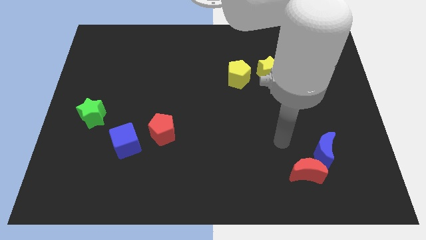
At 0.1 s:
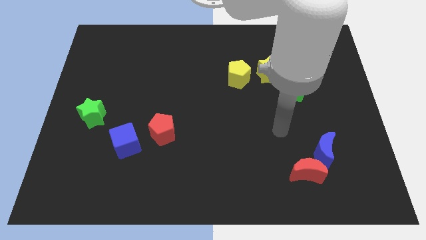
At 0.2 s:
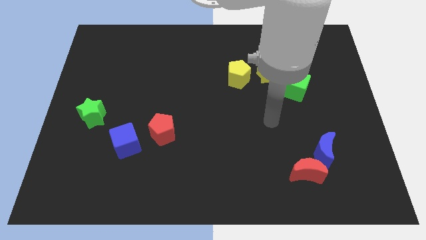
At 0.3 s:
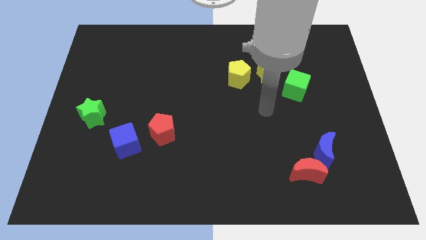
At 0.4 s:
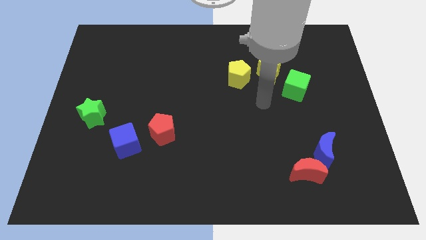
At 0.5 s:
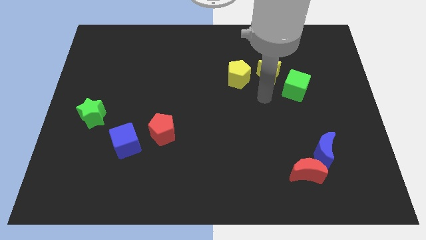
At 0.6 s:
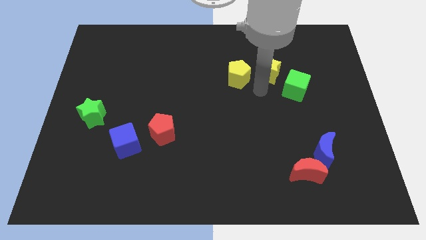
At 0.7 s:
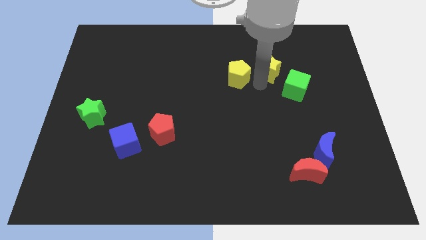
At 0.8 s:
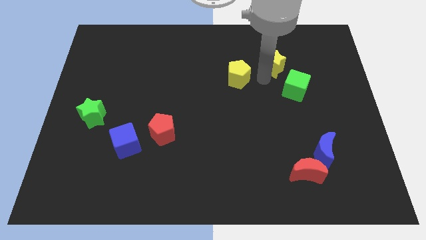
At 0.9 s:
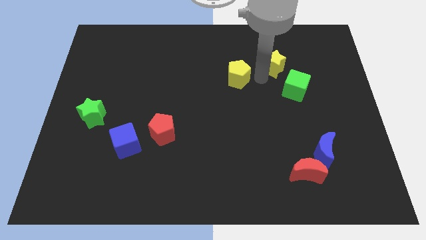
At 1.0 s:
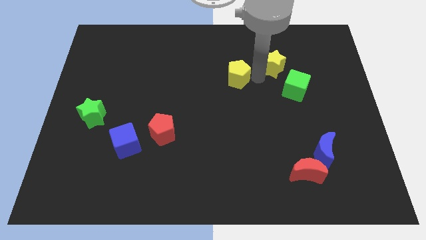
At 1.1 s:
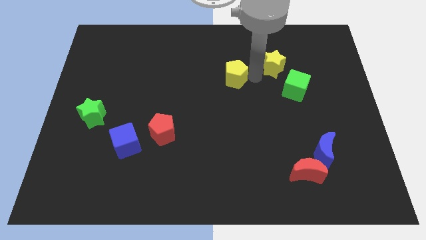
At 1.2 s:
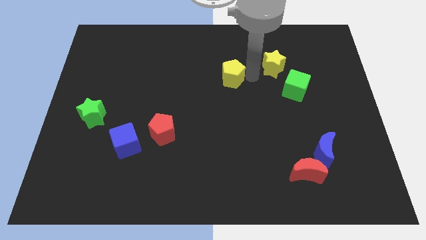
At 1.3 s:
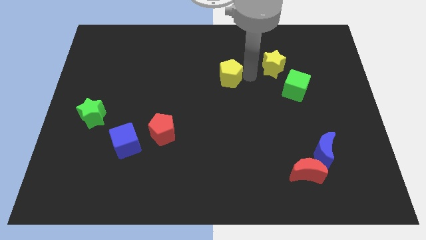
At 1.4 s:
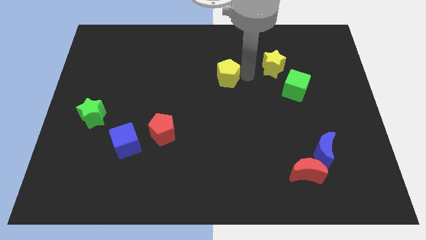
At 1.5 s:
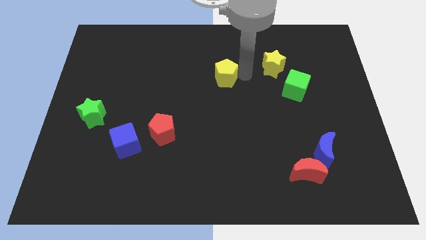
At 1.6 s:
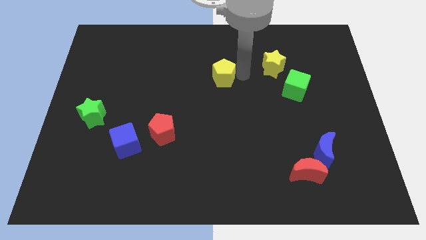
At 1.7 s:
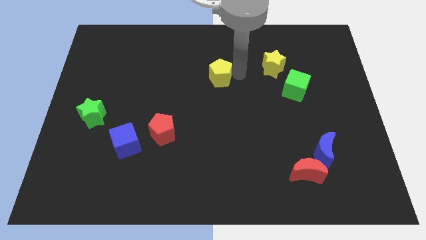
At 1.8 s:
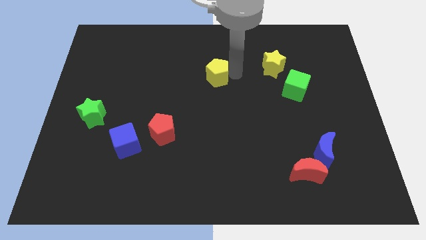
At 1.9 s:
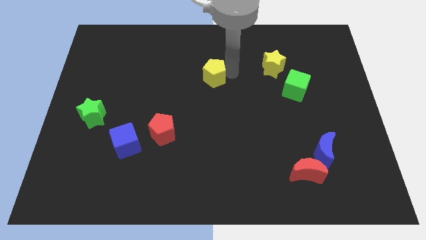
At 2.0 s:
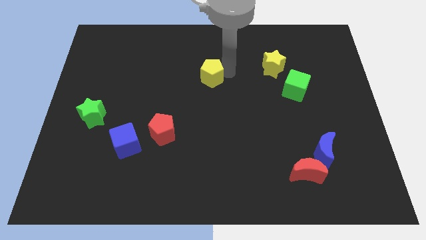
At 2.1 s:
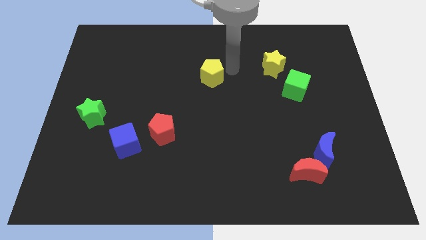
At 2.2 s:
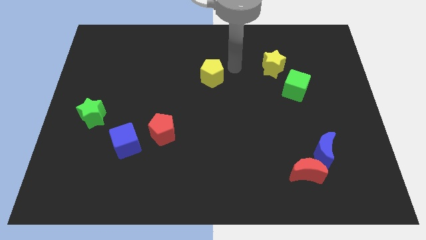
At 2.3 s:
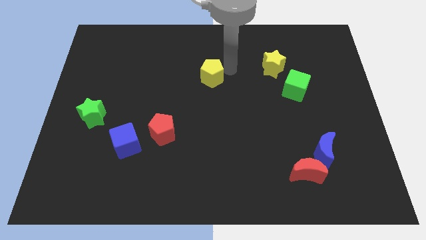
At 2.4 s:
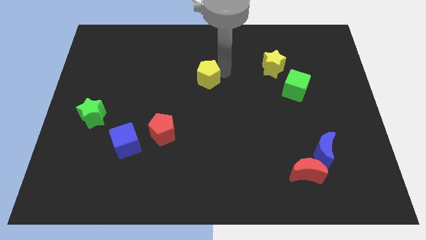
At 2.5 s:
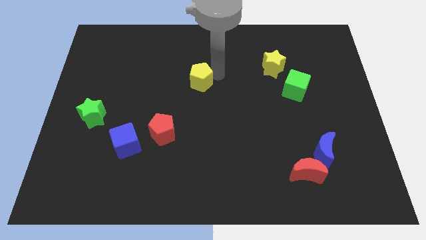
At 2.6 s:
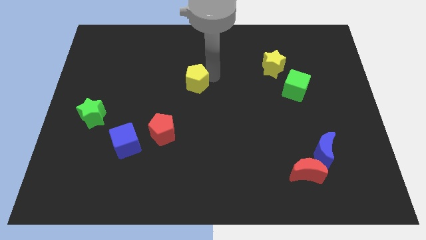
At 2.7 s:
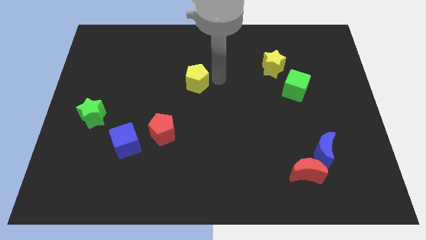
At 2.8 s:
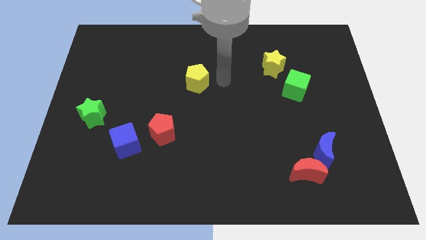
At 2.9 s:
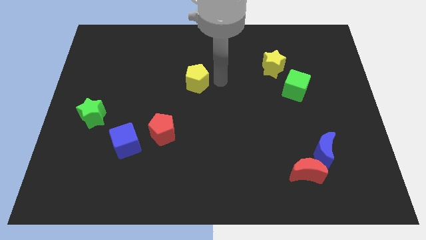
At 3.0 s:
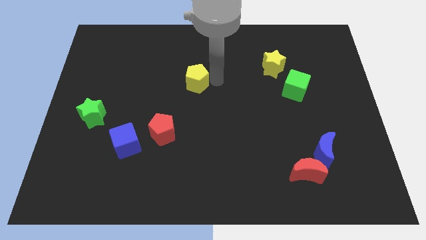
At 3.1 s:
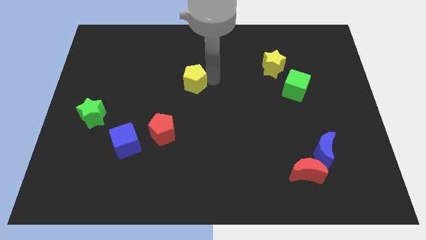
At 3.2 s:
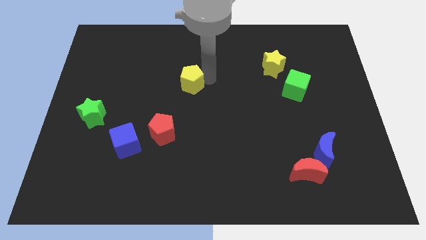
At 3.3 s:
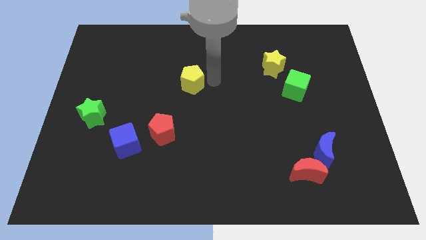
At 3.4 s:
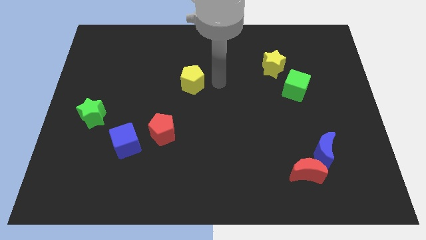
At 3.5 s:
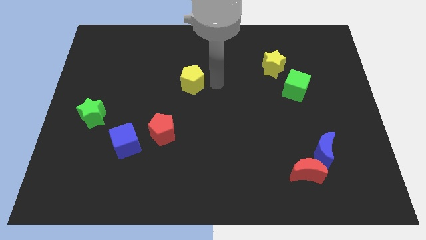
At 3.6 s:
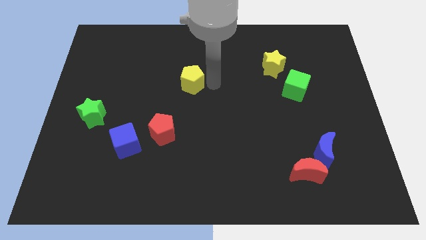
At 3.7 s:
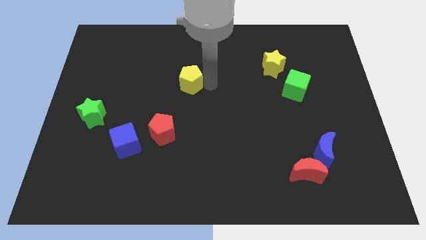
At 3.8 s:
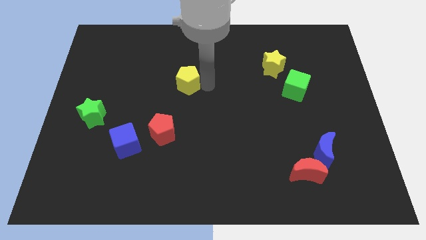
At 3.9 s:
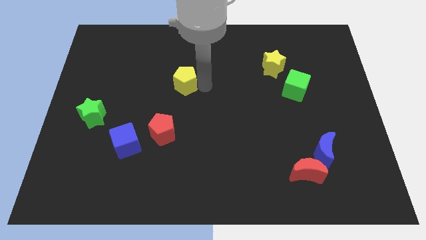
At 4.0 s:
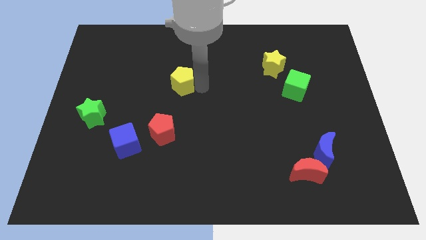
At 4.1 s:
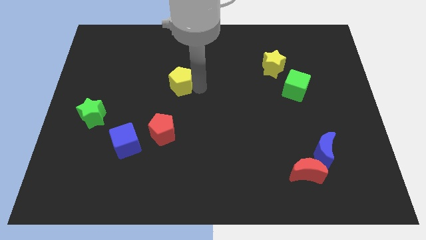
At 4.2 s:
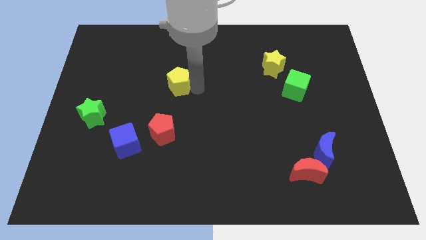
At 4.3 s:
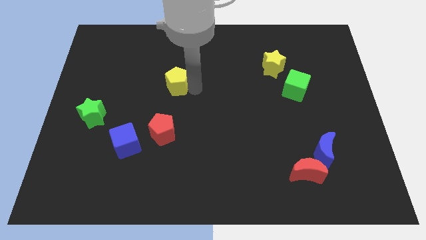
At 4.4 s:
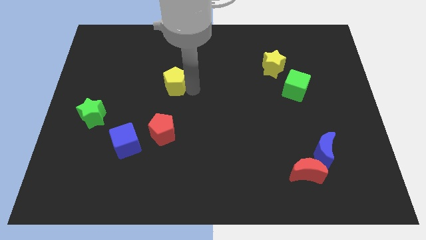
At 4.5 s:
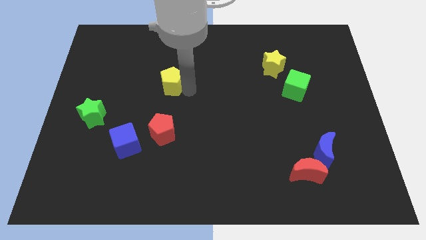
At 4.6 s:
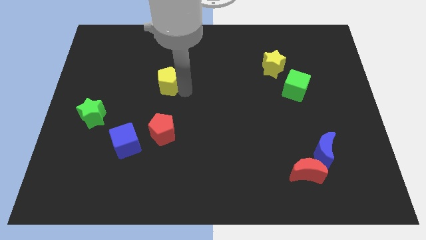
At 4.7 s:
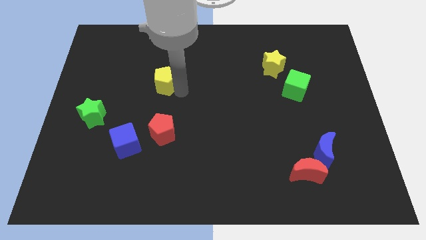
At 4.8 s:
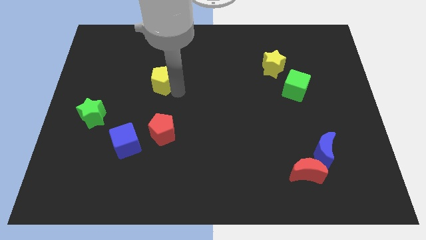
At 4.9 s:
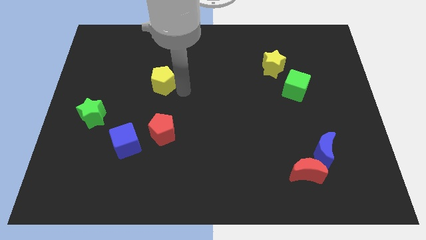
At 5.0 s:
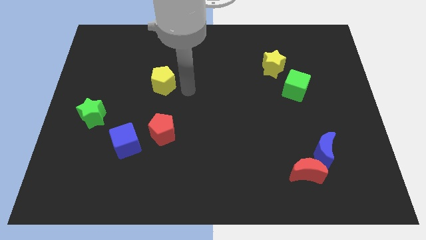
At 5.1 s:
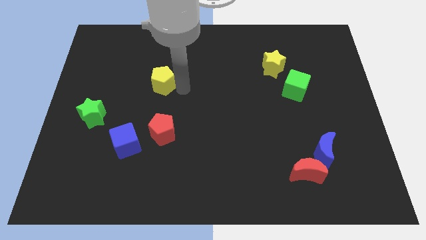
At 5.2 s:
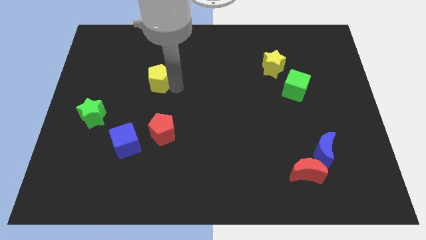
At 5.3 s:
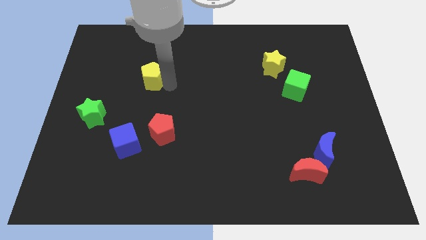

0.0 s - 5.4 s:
slide the yellow pentagon to the left

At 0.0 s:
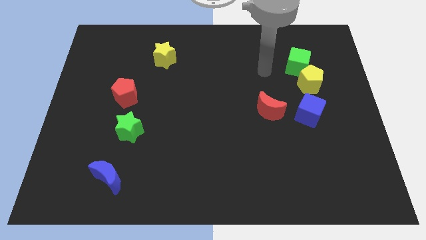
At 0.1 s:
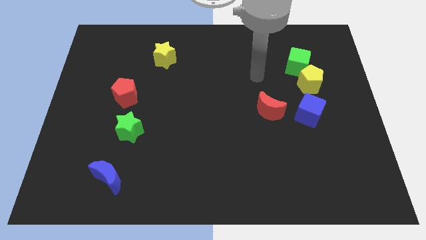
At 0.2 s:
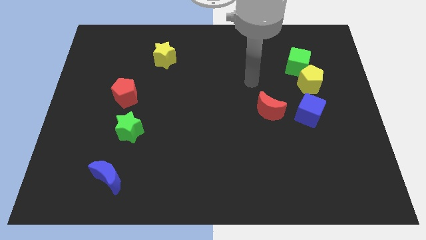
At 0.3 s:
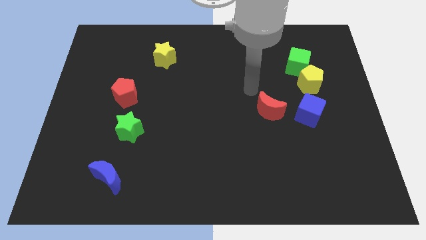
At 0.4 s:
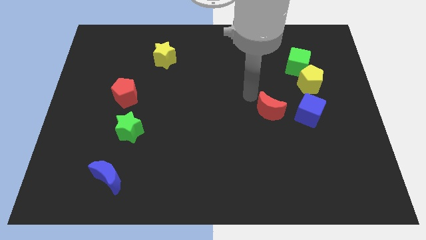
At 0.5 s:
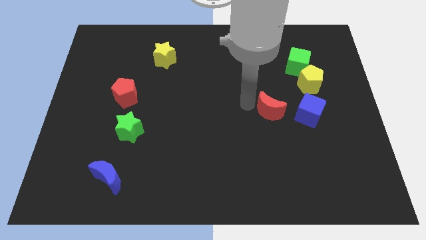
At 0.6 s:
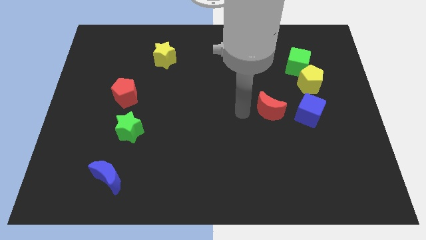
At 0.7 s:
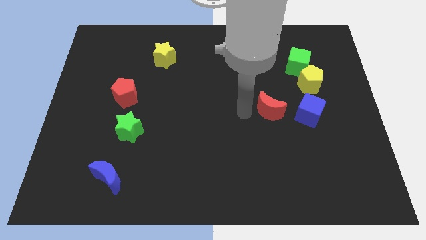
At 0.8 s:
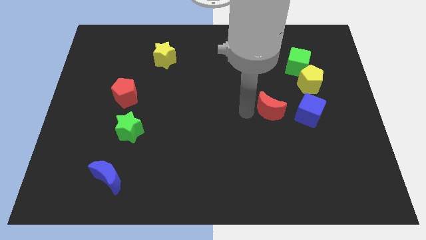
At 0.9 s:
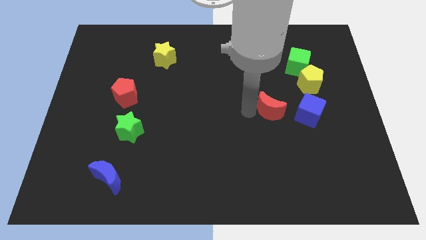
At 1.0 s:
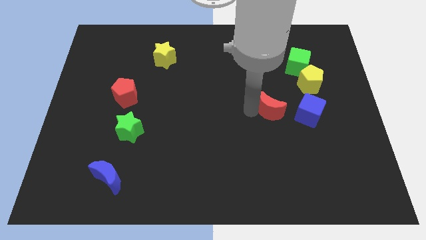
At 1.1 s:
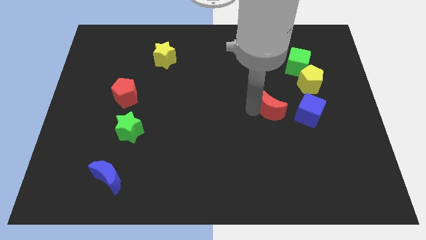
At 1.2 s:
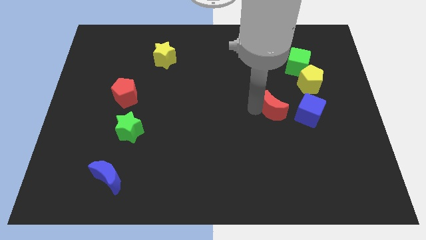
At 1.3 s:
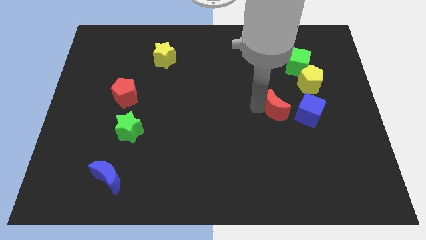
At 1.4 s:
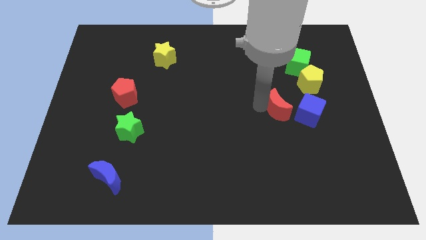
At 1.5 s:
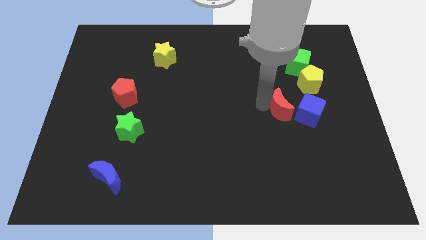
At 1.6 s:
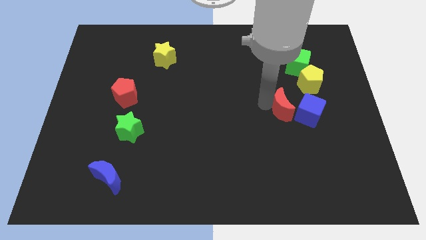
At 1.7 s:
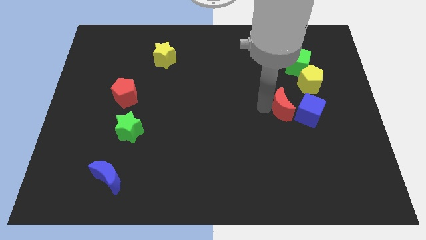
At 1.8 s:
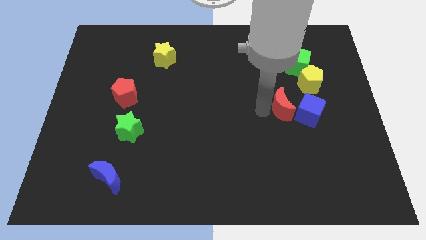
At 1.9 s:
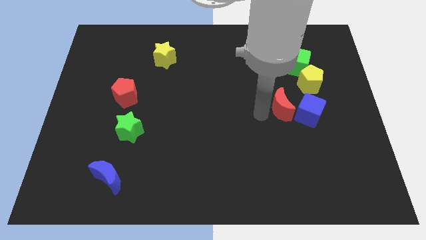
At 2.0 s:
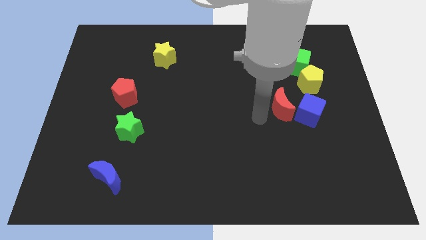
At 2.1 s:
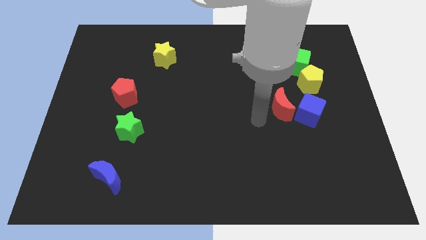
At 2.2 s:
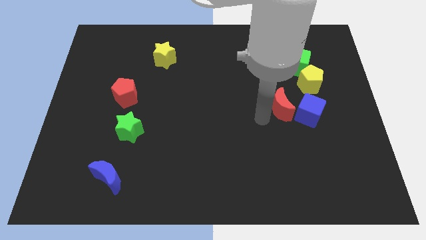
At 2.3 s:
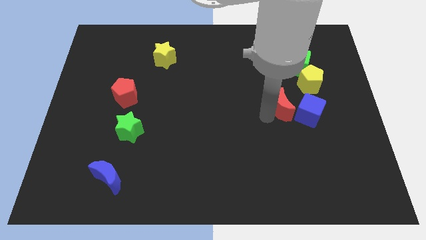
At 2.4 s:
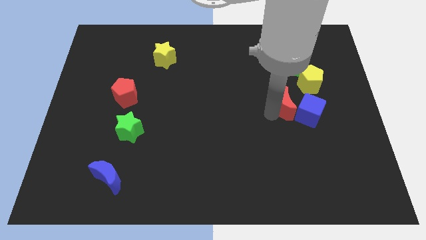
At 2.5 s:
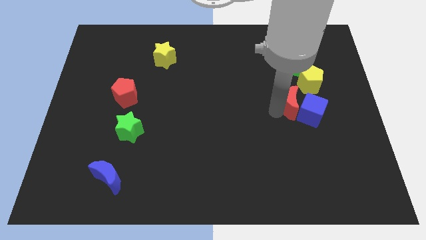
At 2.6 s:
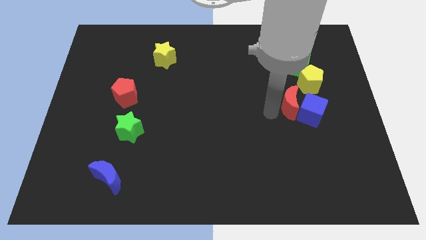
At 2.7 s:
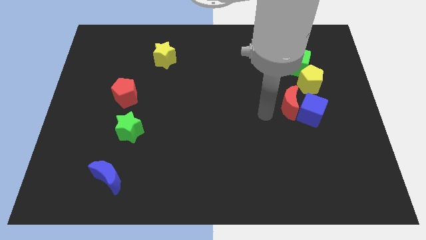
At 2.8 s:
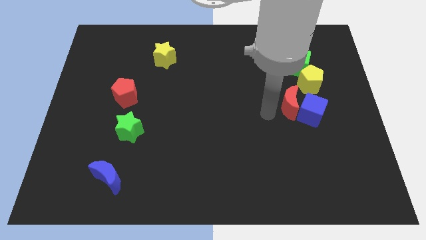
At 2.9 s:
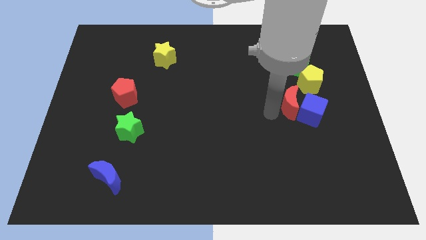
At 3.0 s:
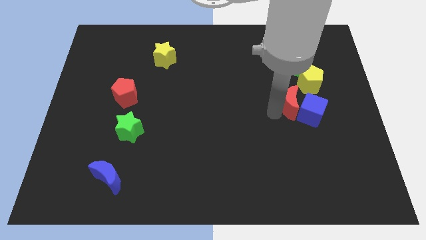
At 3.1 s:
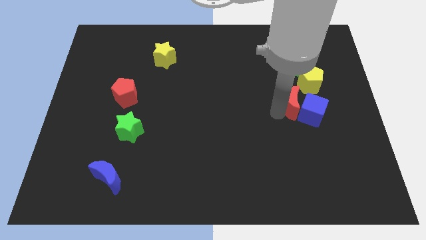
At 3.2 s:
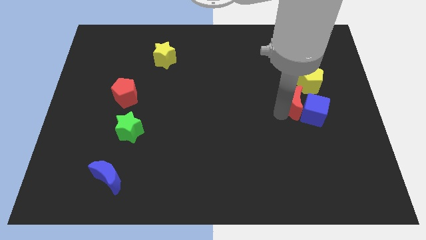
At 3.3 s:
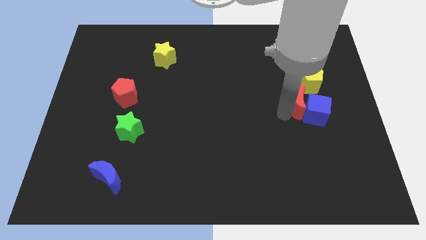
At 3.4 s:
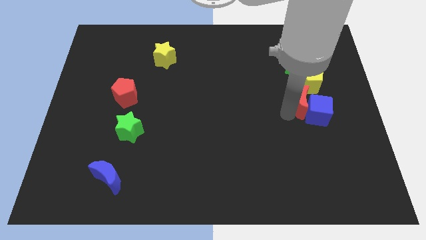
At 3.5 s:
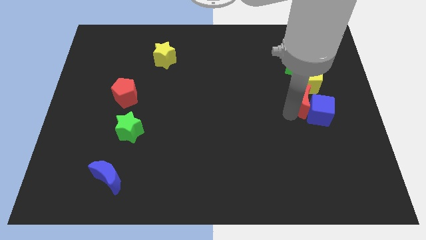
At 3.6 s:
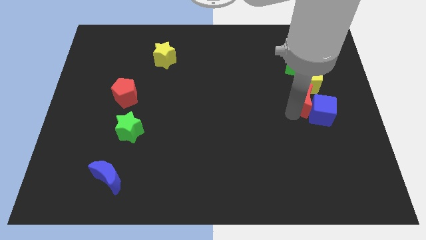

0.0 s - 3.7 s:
push the red moon diagonally up and to the right somewhat
